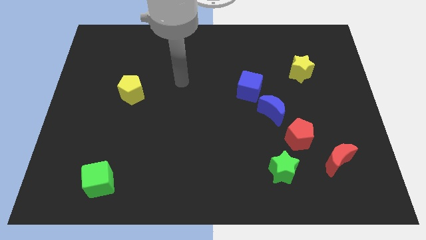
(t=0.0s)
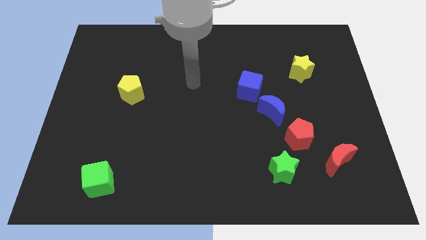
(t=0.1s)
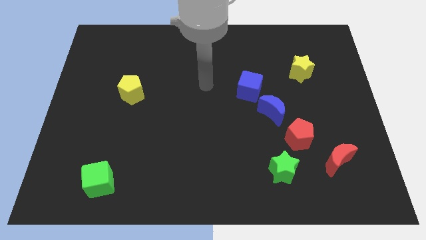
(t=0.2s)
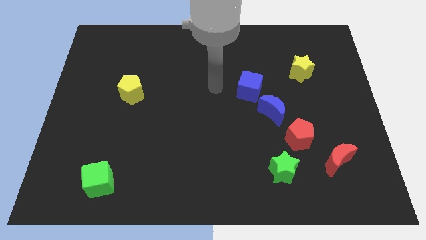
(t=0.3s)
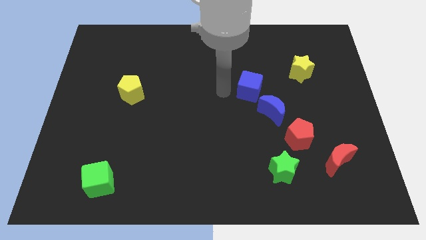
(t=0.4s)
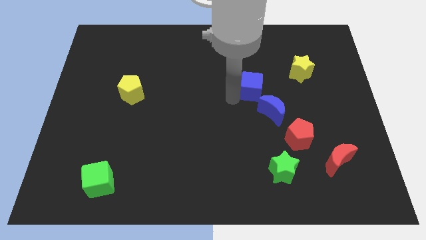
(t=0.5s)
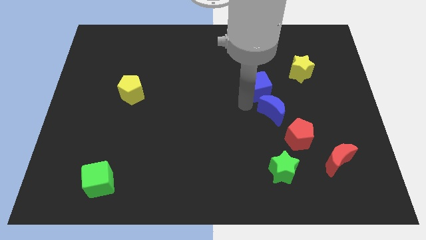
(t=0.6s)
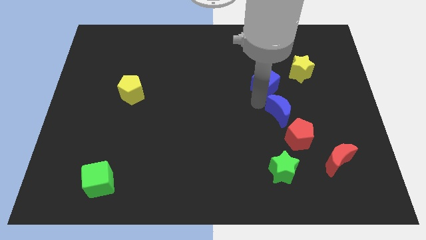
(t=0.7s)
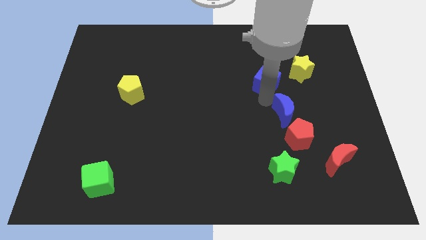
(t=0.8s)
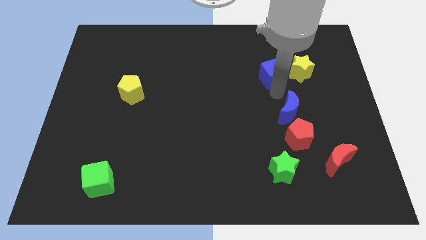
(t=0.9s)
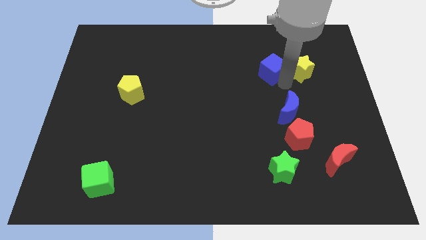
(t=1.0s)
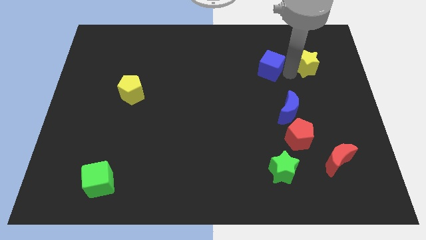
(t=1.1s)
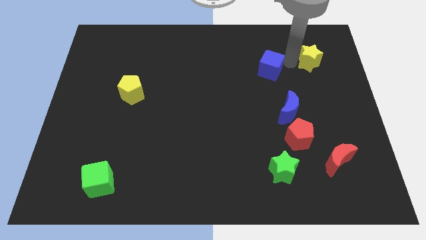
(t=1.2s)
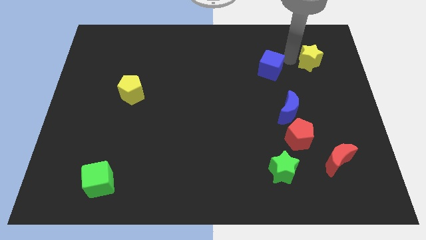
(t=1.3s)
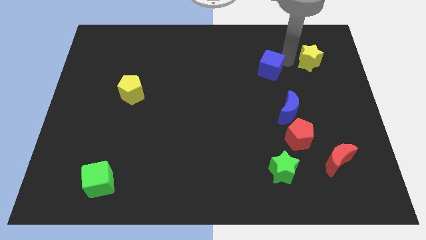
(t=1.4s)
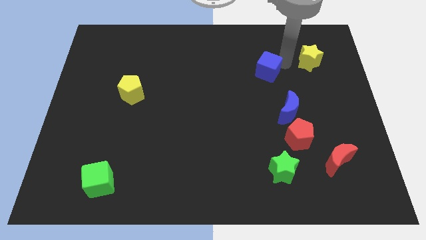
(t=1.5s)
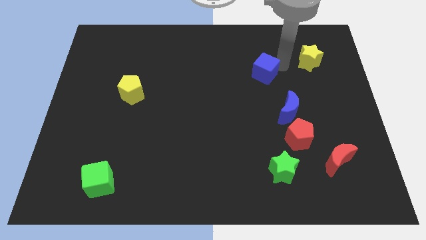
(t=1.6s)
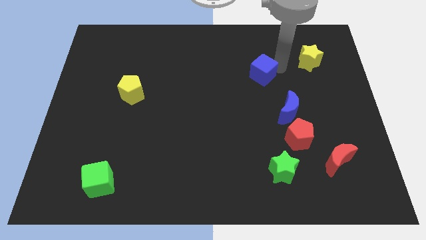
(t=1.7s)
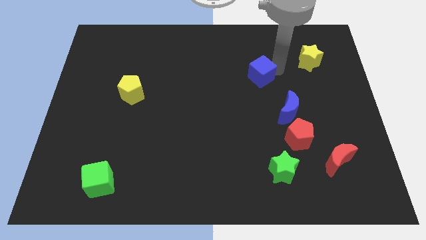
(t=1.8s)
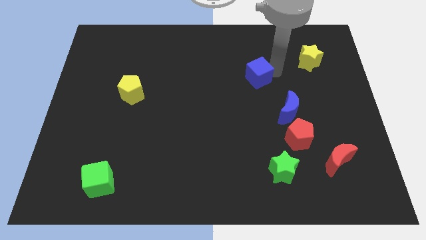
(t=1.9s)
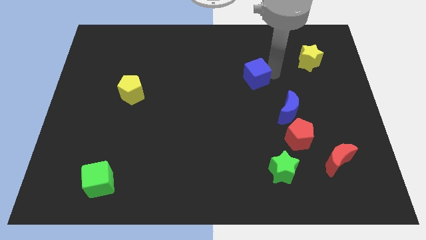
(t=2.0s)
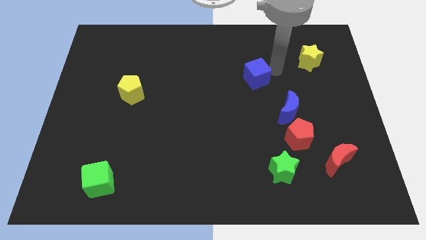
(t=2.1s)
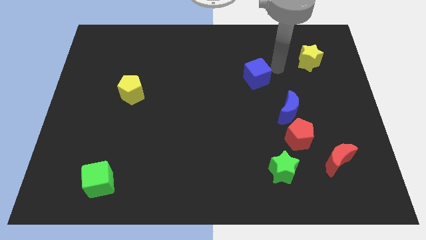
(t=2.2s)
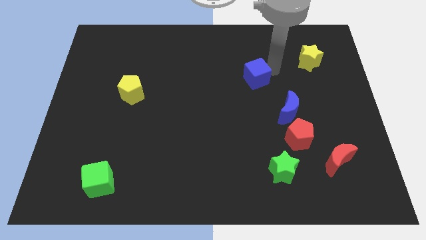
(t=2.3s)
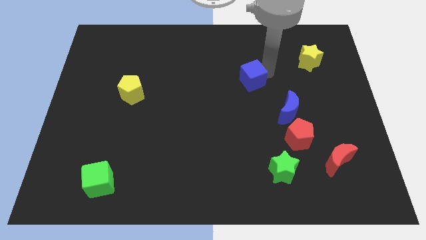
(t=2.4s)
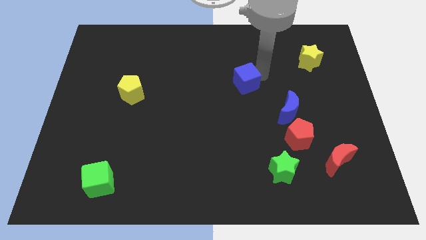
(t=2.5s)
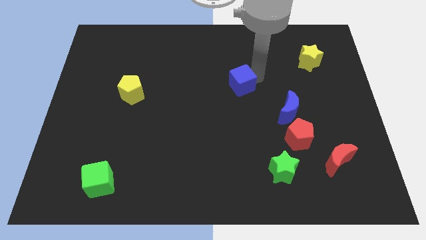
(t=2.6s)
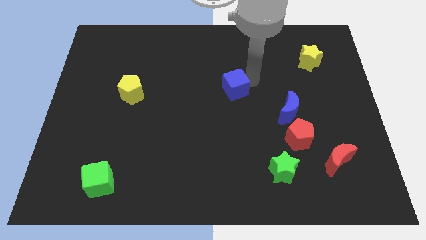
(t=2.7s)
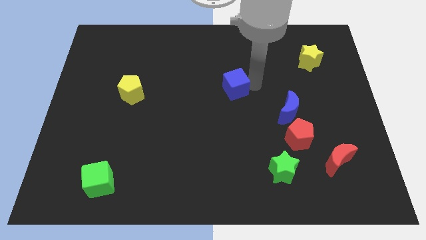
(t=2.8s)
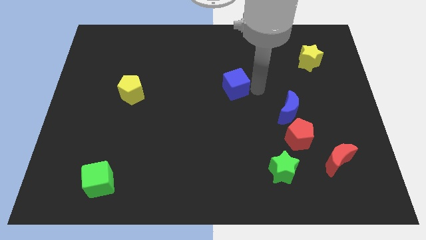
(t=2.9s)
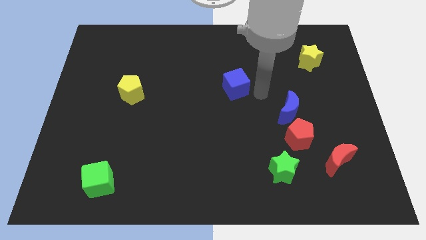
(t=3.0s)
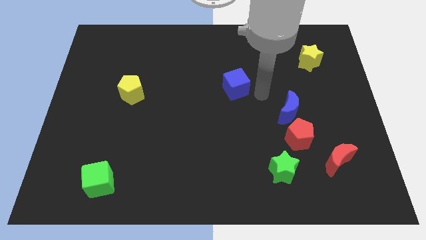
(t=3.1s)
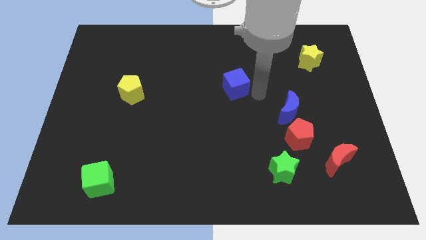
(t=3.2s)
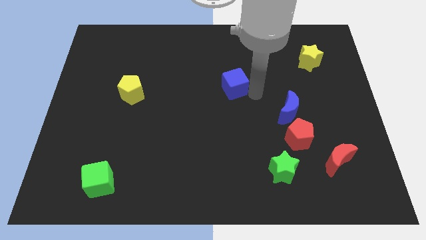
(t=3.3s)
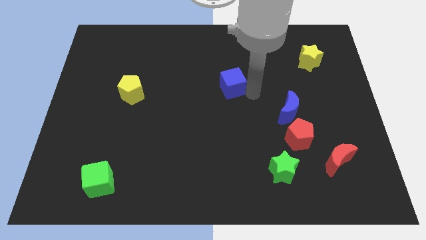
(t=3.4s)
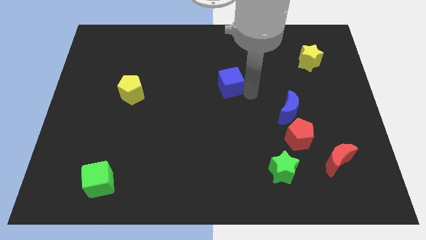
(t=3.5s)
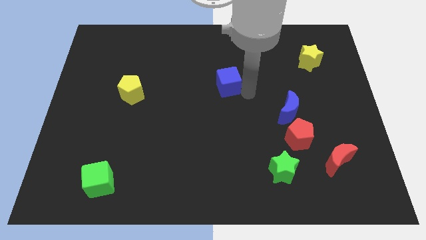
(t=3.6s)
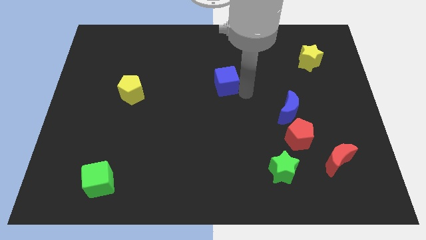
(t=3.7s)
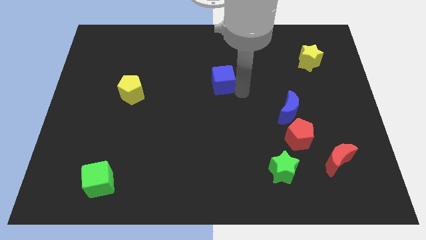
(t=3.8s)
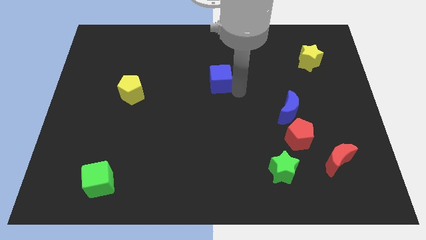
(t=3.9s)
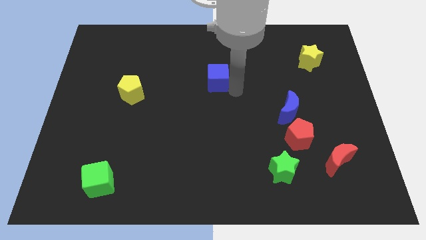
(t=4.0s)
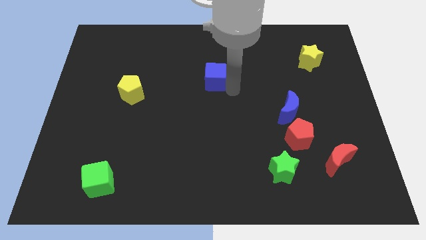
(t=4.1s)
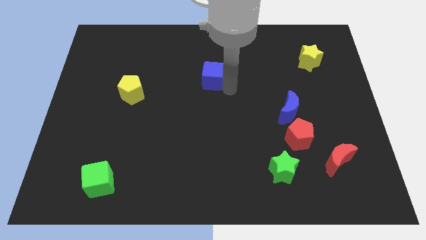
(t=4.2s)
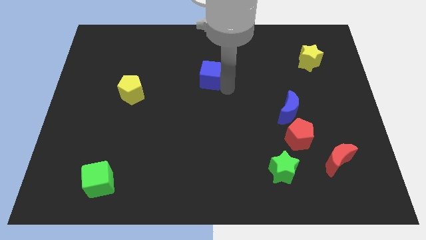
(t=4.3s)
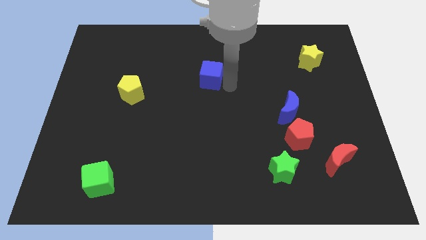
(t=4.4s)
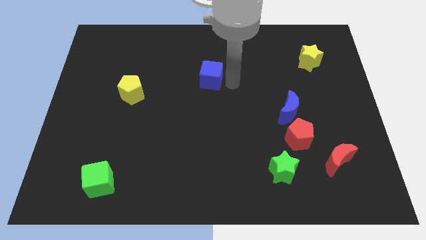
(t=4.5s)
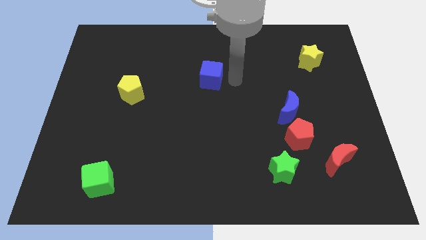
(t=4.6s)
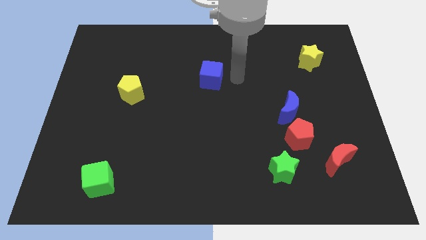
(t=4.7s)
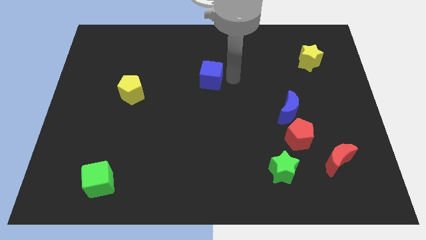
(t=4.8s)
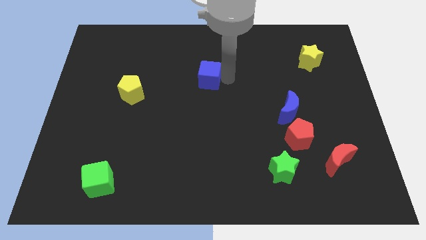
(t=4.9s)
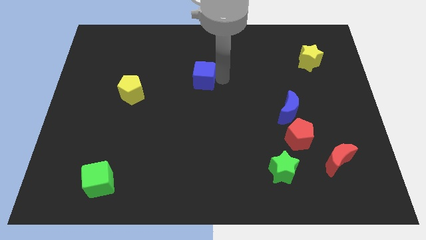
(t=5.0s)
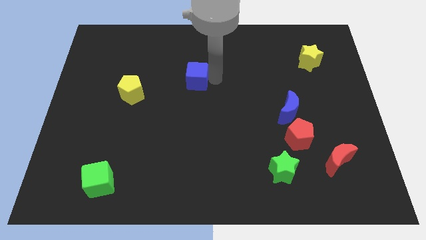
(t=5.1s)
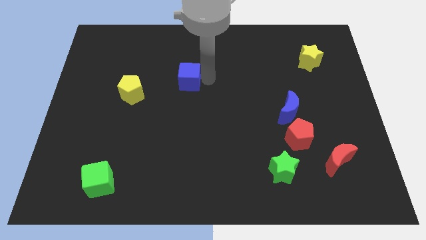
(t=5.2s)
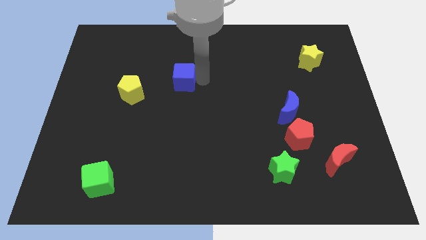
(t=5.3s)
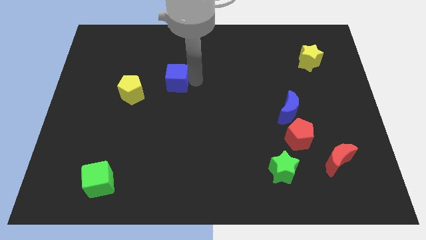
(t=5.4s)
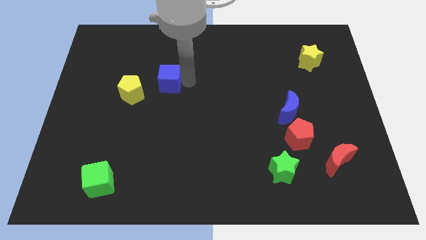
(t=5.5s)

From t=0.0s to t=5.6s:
slide the blue cube diagonally up and to the right of the yellow pentagon

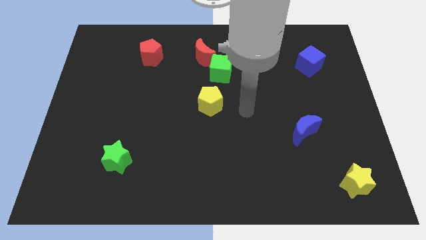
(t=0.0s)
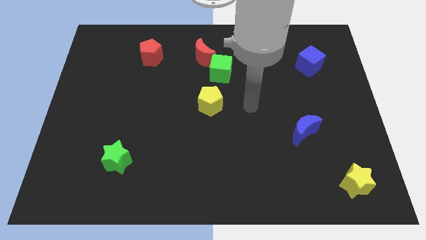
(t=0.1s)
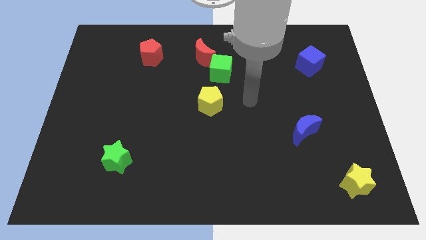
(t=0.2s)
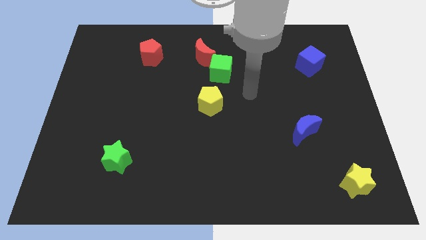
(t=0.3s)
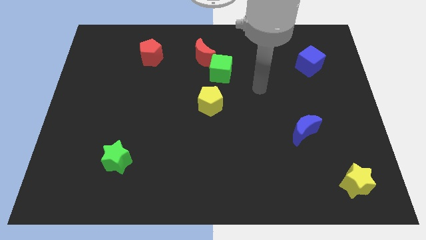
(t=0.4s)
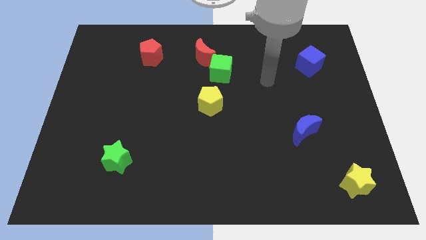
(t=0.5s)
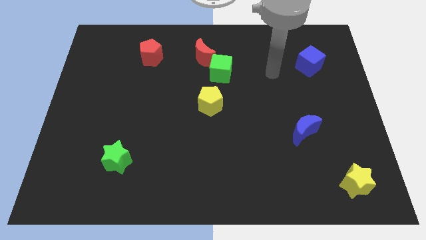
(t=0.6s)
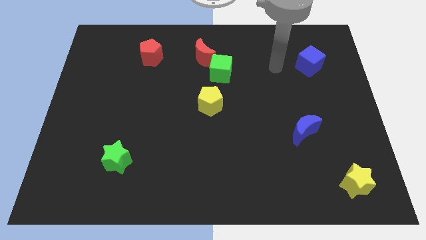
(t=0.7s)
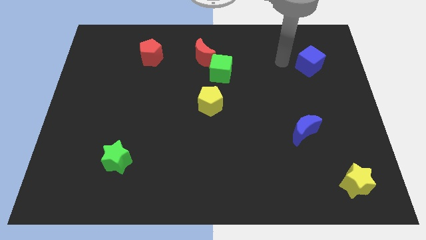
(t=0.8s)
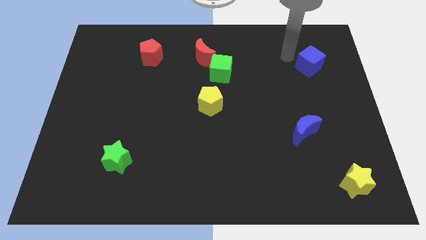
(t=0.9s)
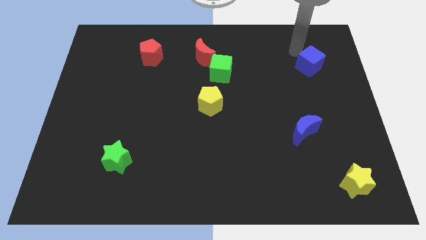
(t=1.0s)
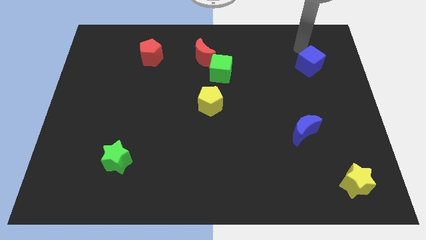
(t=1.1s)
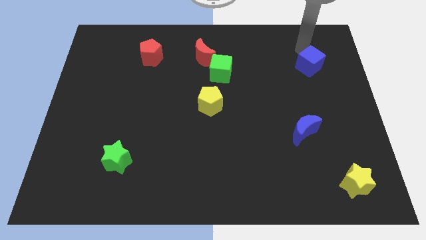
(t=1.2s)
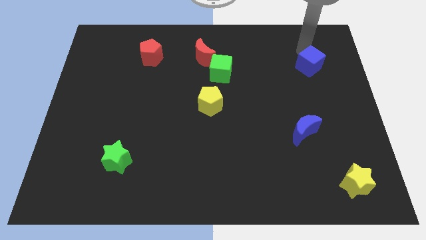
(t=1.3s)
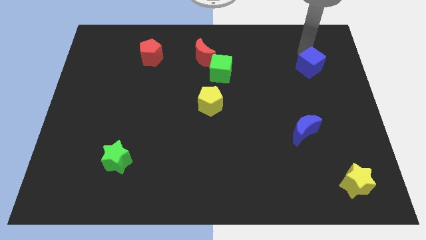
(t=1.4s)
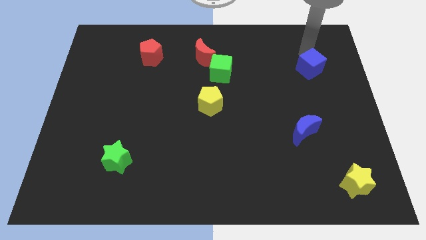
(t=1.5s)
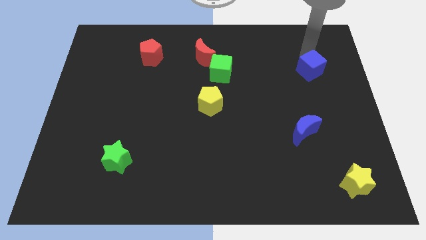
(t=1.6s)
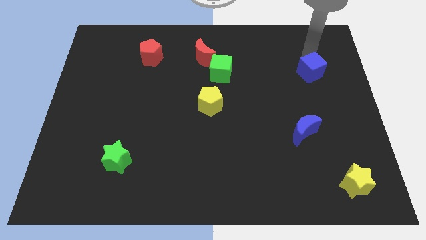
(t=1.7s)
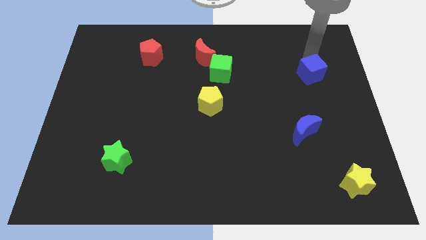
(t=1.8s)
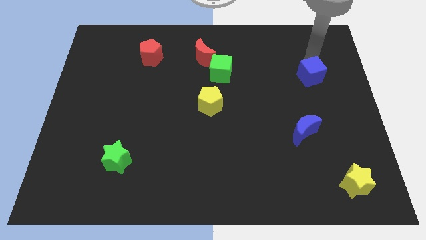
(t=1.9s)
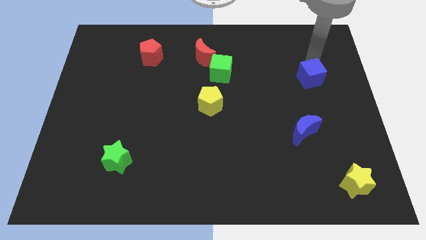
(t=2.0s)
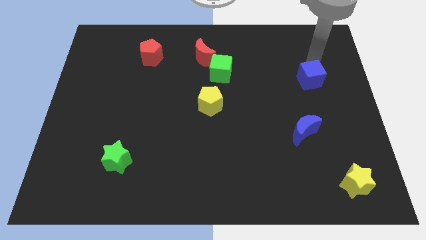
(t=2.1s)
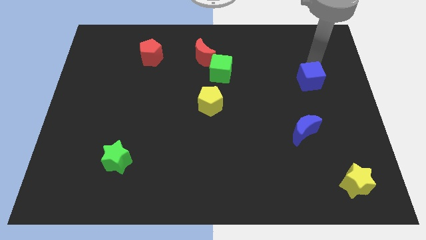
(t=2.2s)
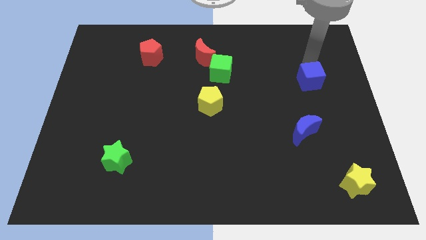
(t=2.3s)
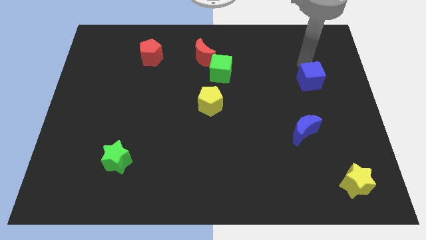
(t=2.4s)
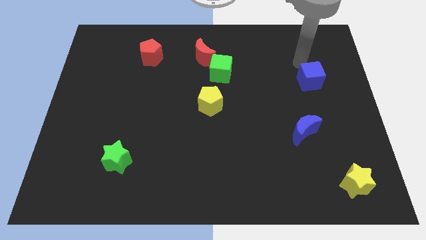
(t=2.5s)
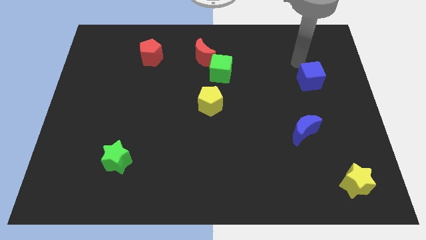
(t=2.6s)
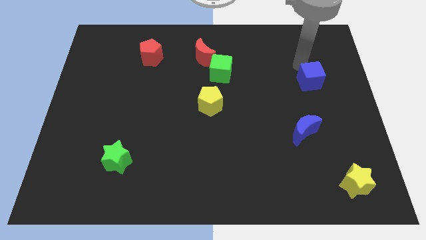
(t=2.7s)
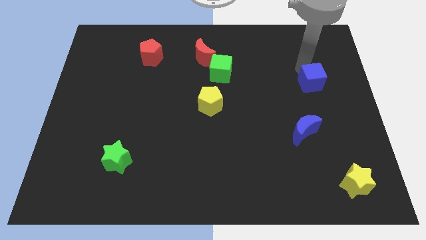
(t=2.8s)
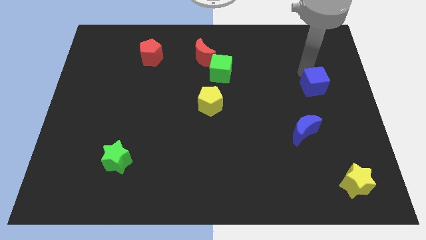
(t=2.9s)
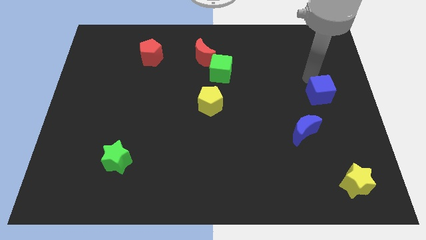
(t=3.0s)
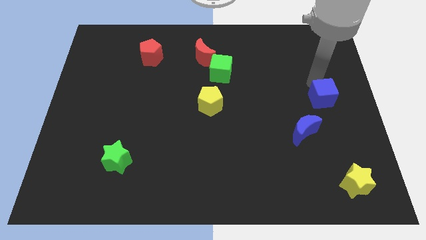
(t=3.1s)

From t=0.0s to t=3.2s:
push the blue cube to the top right side of the blue moon
